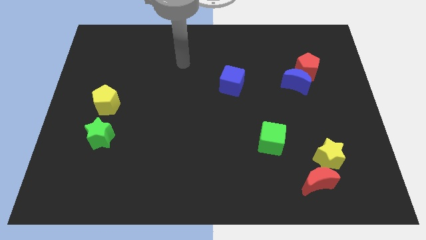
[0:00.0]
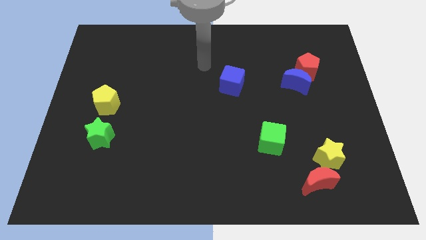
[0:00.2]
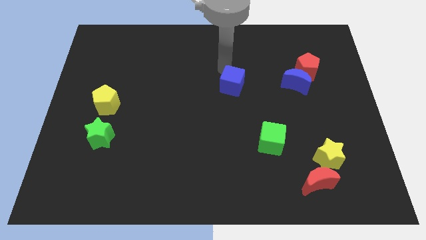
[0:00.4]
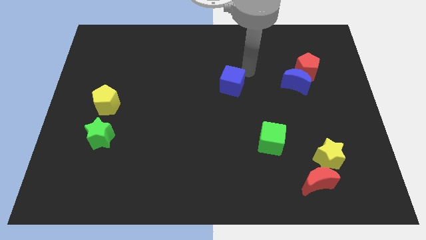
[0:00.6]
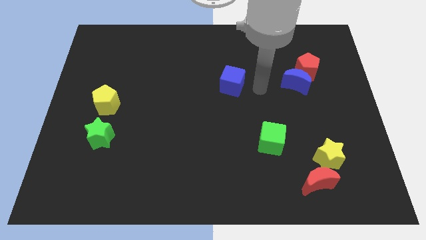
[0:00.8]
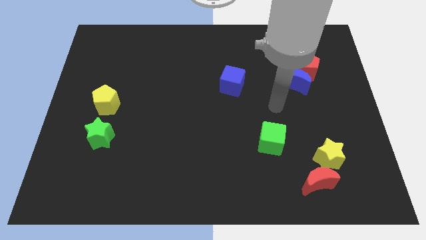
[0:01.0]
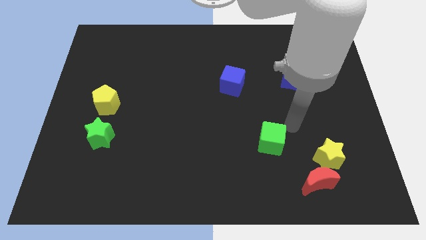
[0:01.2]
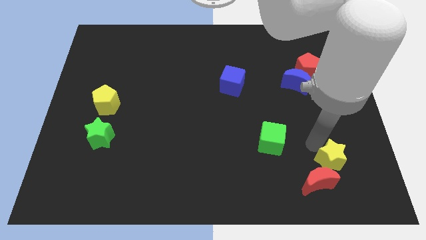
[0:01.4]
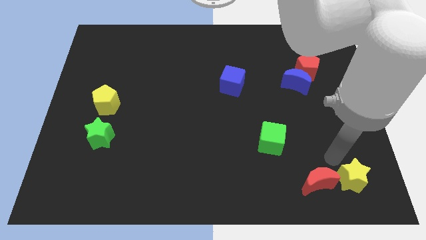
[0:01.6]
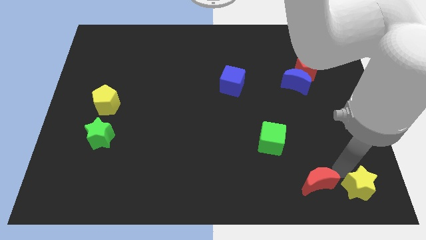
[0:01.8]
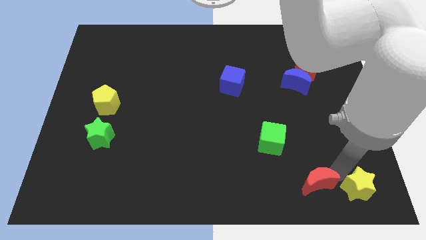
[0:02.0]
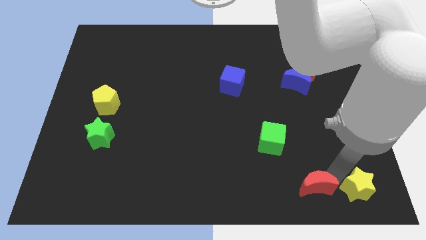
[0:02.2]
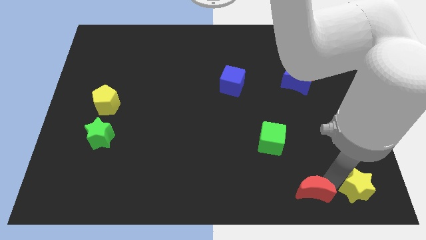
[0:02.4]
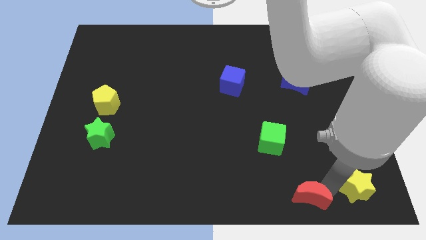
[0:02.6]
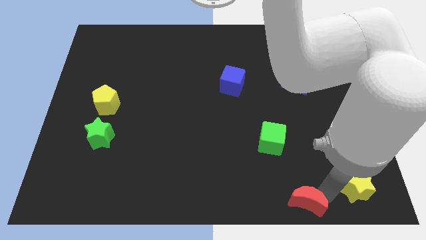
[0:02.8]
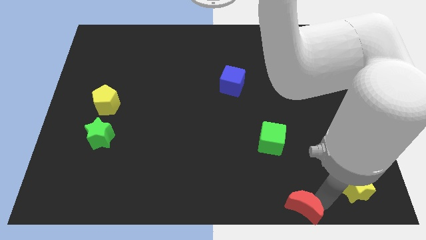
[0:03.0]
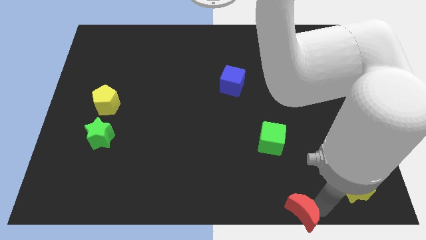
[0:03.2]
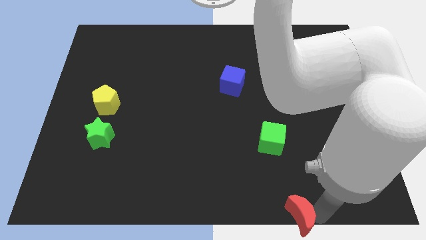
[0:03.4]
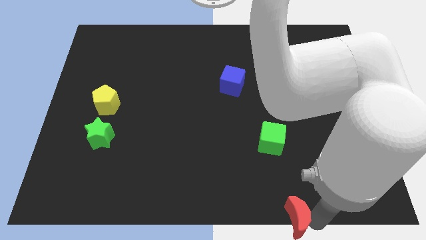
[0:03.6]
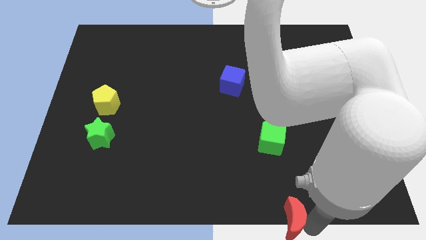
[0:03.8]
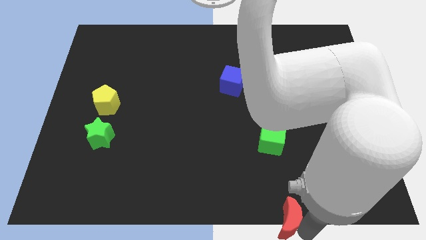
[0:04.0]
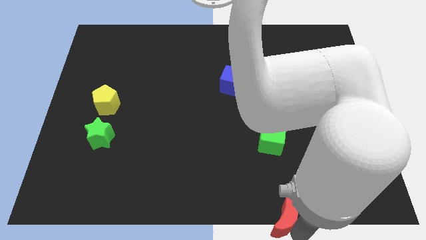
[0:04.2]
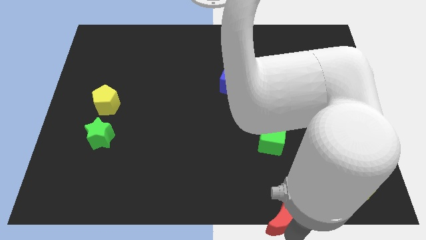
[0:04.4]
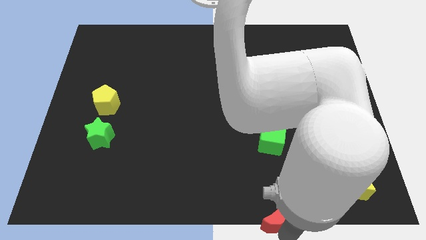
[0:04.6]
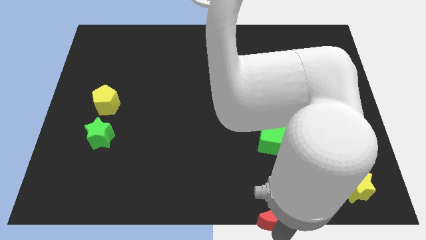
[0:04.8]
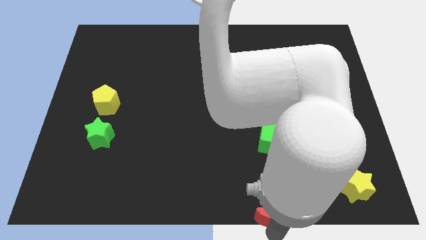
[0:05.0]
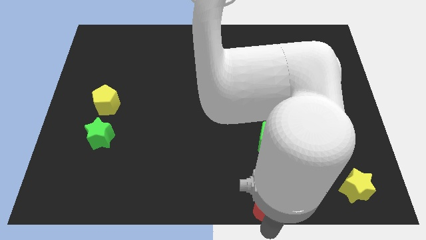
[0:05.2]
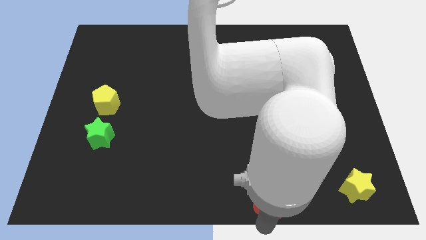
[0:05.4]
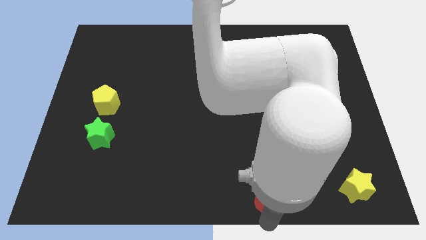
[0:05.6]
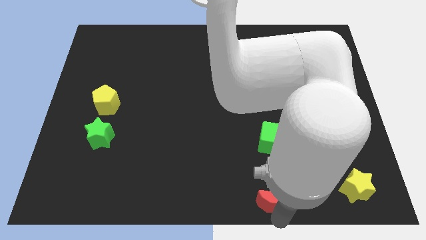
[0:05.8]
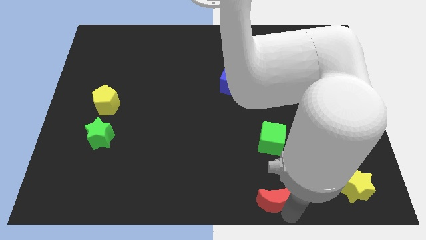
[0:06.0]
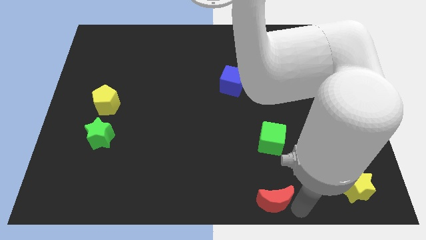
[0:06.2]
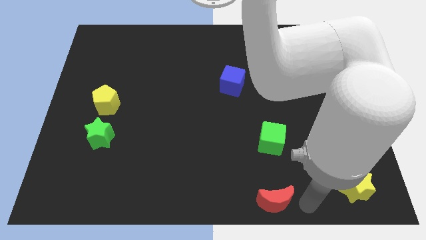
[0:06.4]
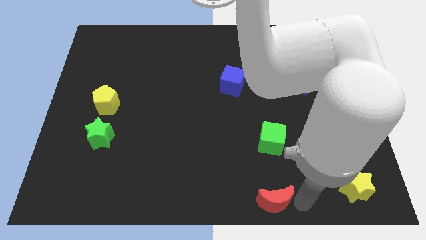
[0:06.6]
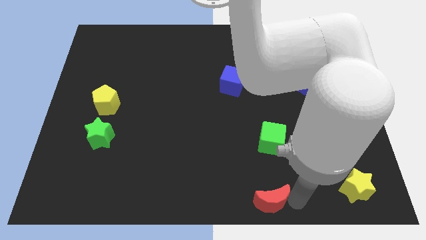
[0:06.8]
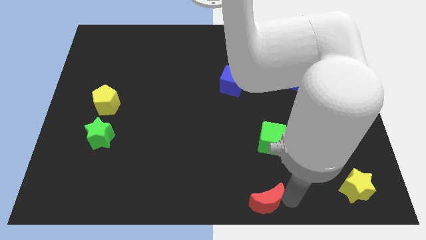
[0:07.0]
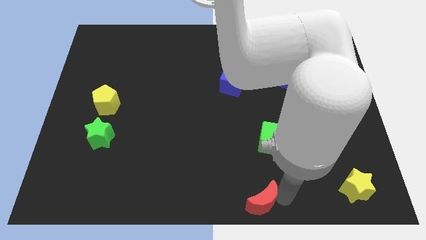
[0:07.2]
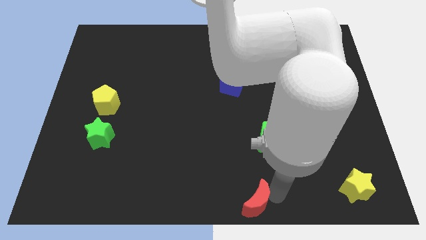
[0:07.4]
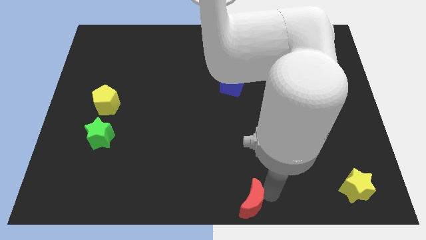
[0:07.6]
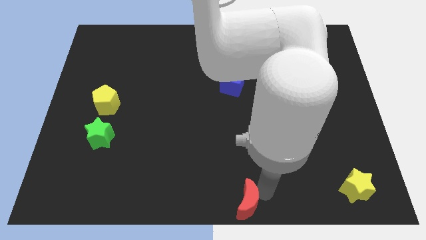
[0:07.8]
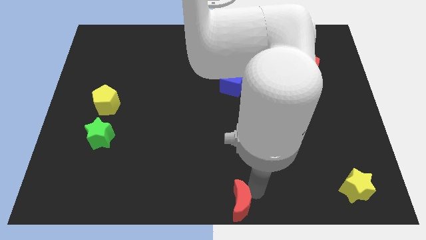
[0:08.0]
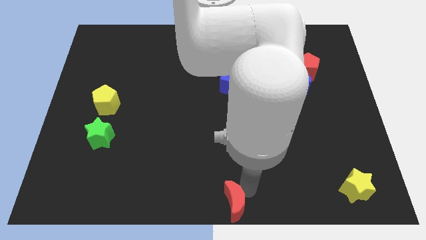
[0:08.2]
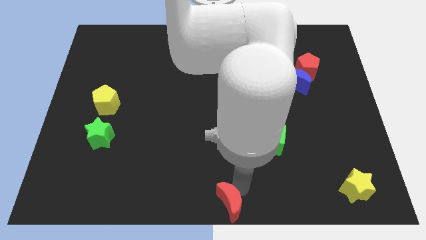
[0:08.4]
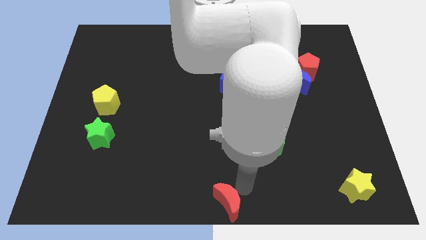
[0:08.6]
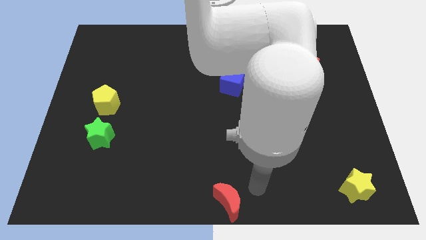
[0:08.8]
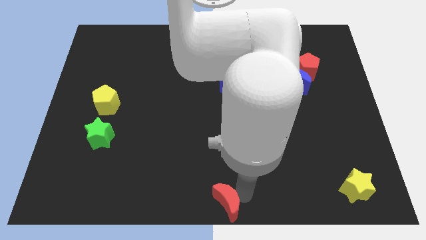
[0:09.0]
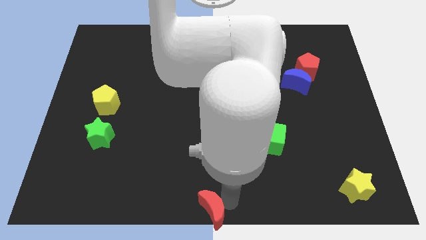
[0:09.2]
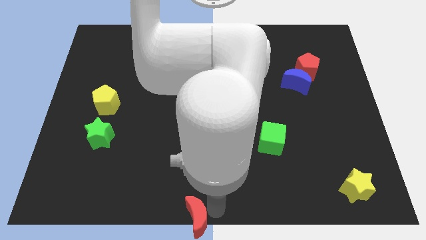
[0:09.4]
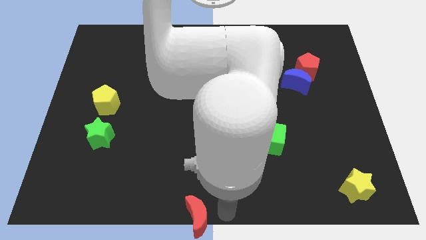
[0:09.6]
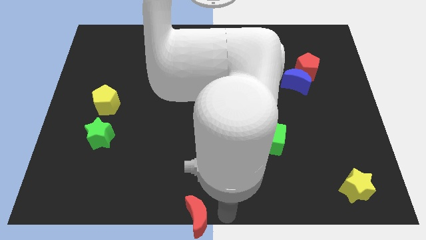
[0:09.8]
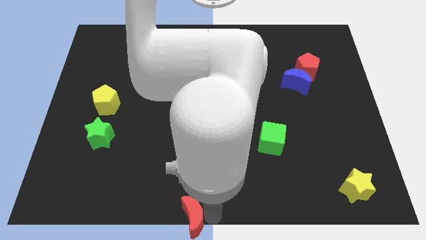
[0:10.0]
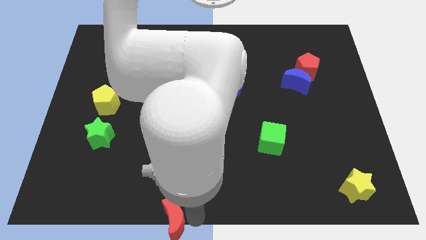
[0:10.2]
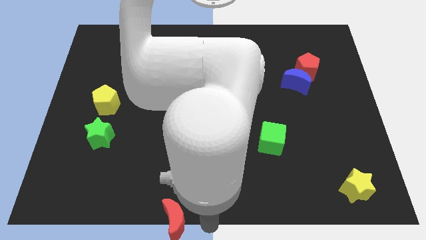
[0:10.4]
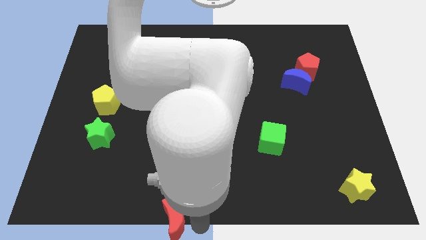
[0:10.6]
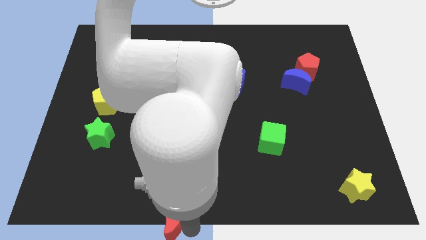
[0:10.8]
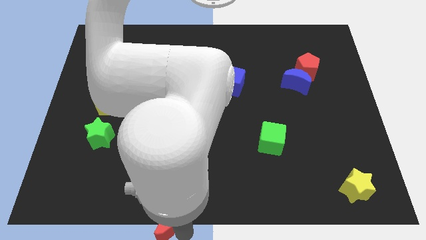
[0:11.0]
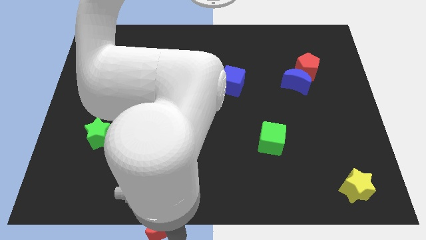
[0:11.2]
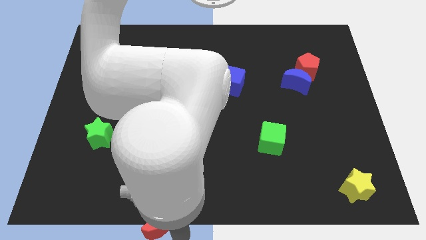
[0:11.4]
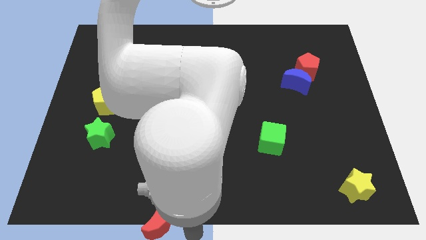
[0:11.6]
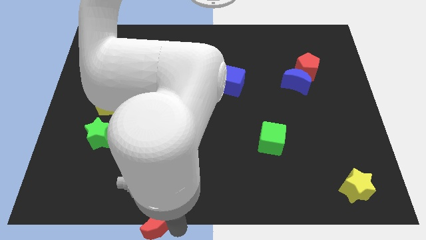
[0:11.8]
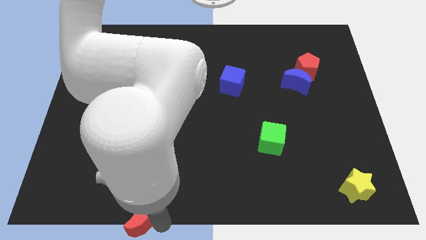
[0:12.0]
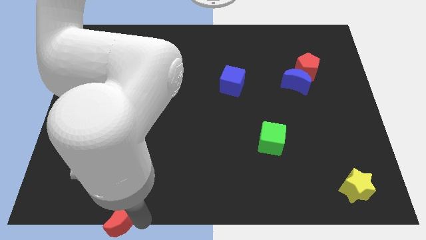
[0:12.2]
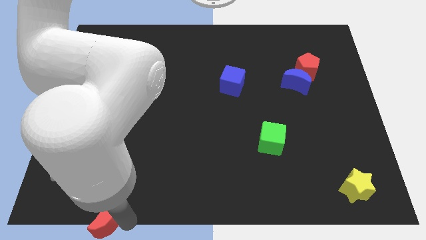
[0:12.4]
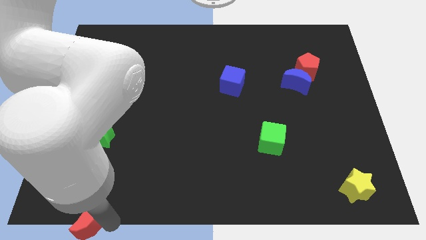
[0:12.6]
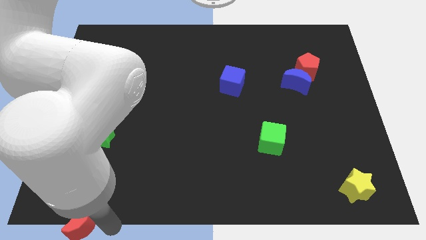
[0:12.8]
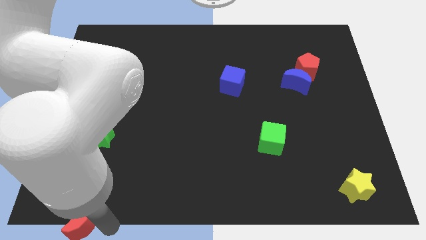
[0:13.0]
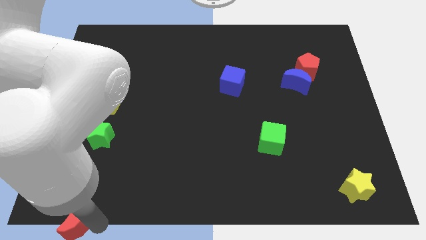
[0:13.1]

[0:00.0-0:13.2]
slide the red moon to the lower left corner
